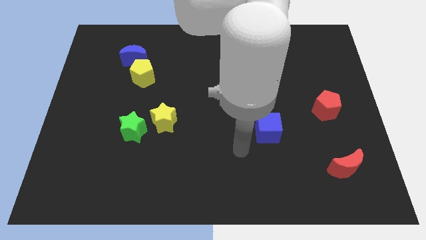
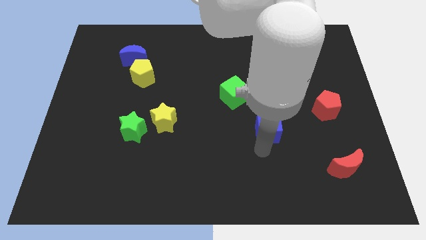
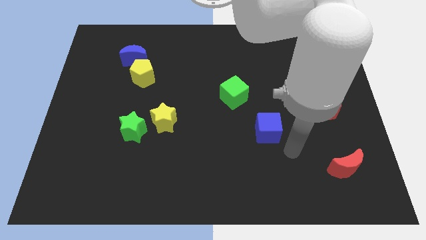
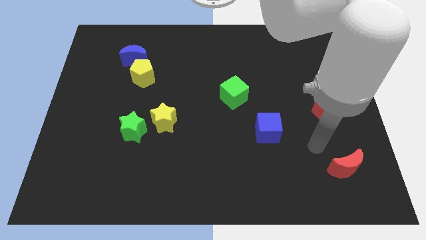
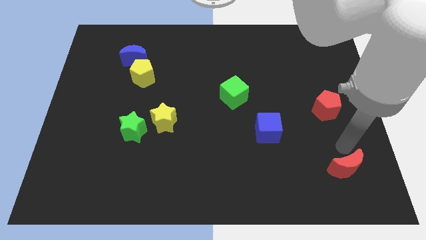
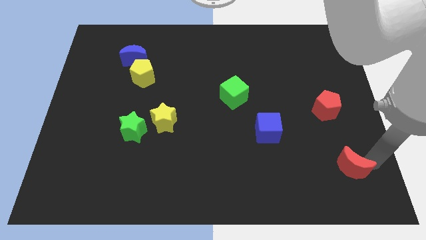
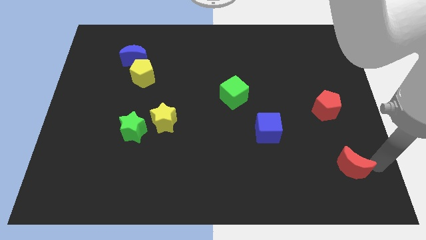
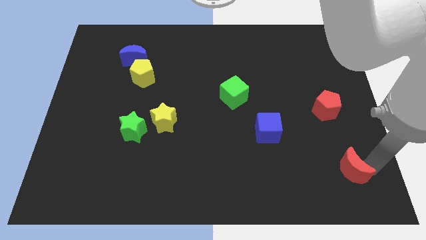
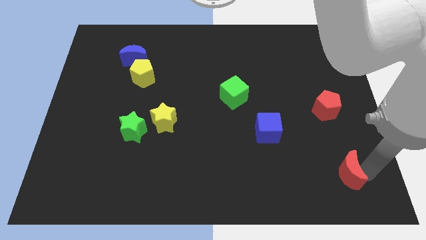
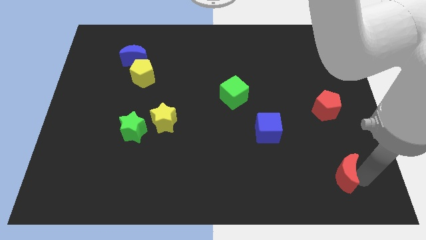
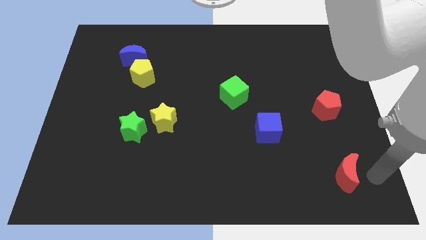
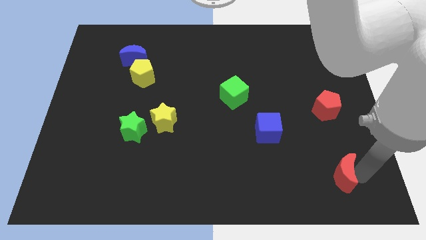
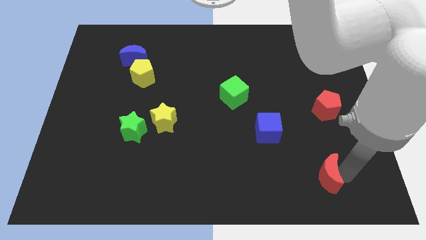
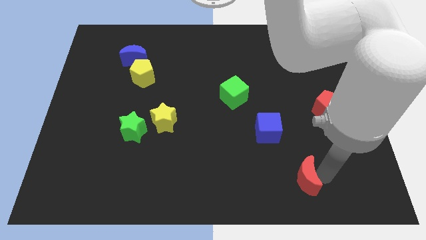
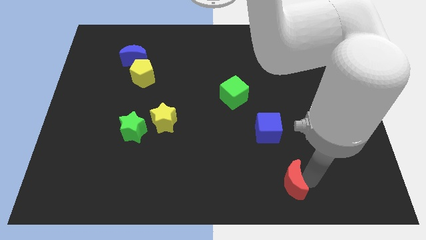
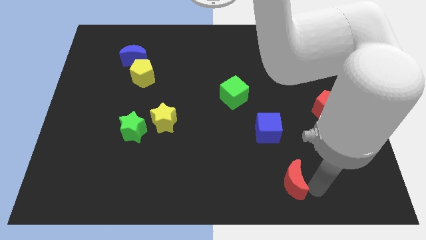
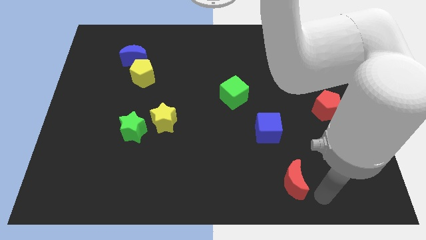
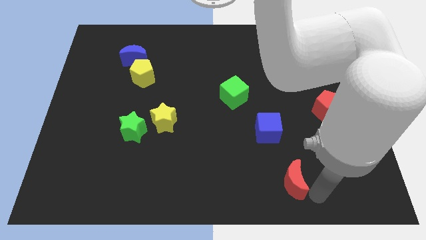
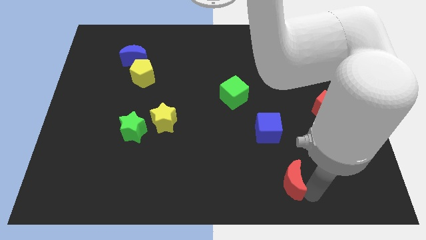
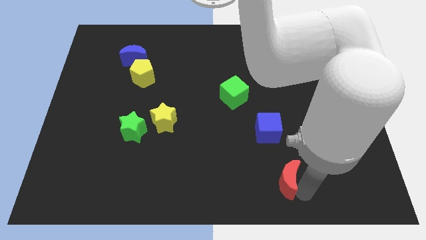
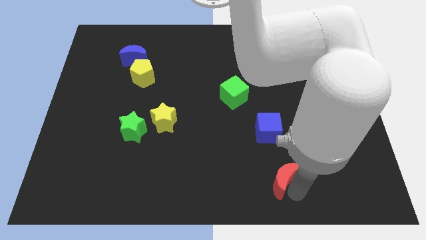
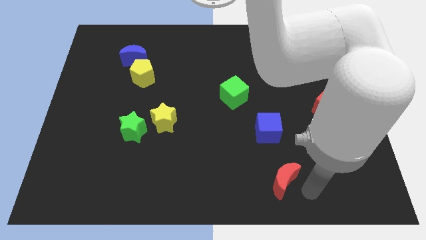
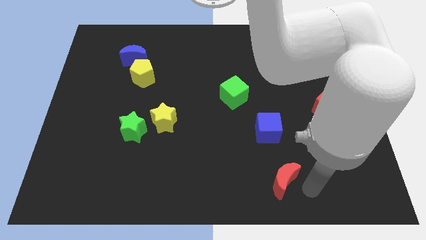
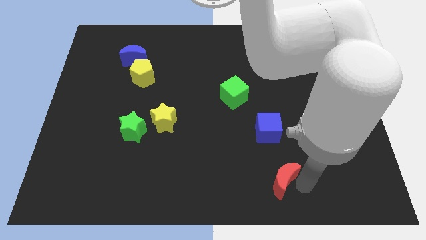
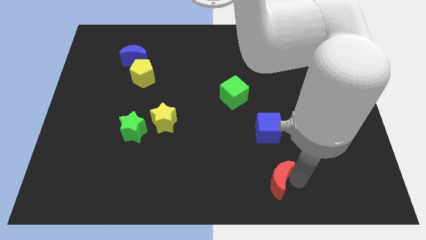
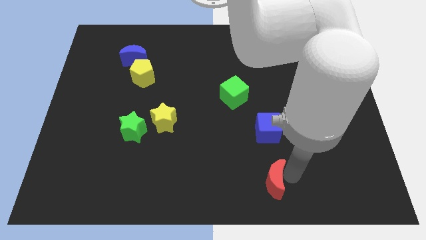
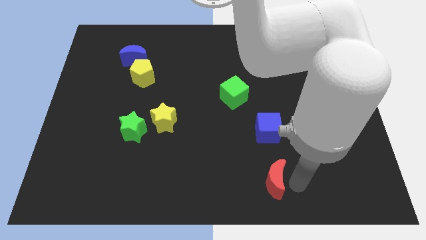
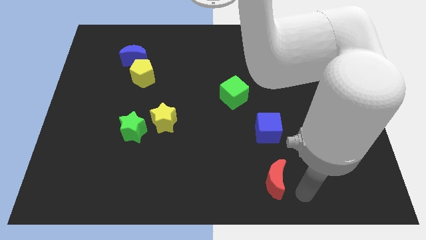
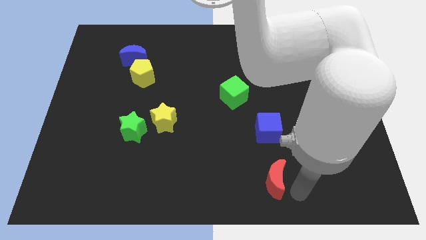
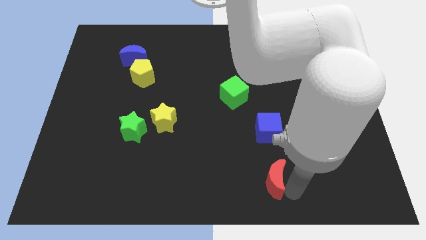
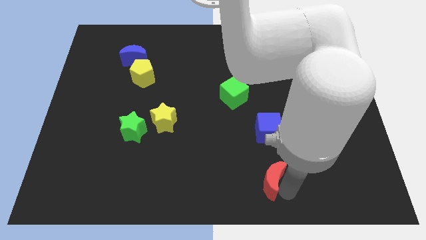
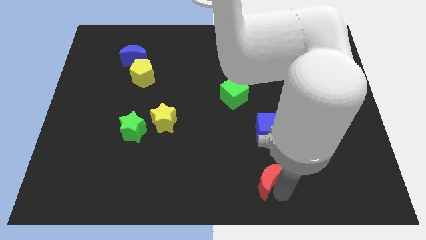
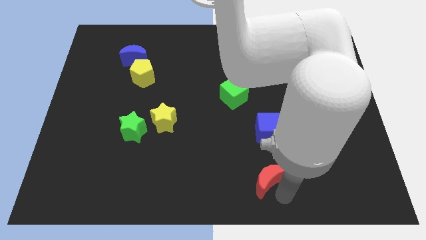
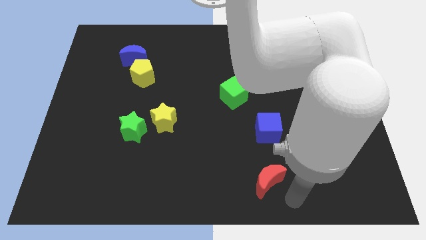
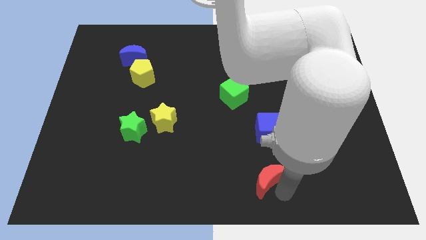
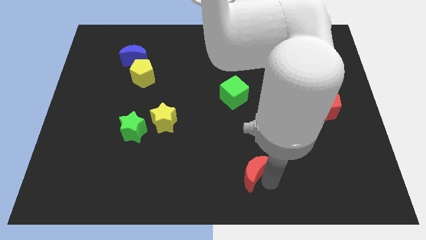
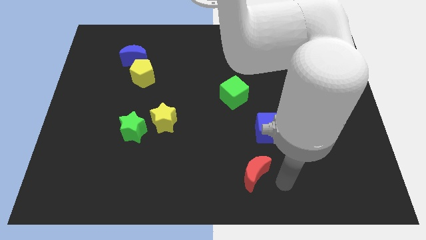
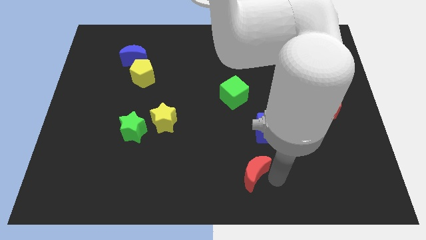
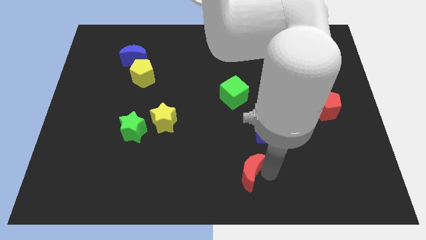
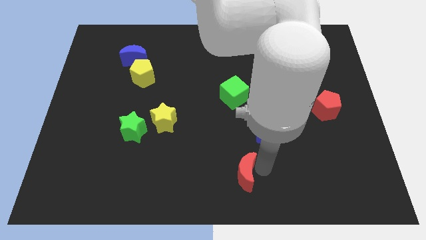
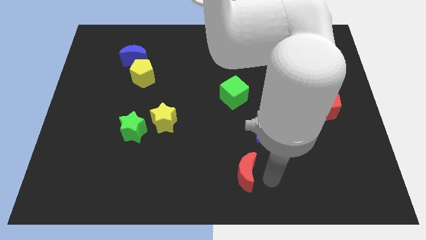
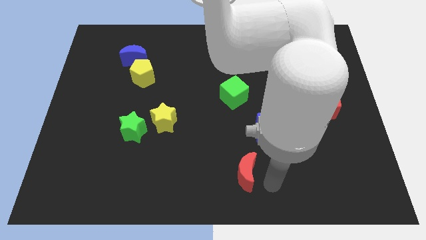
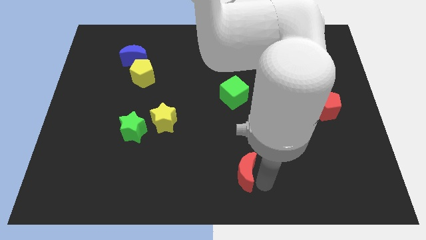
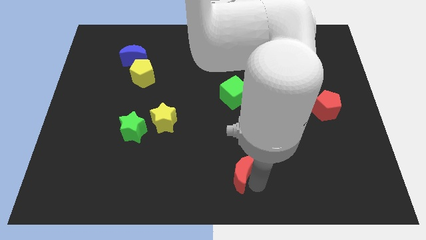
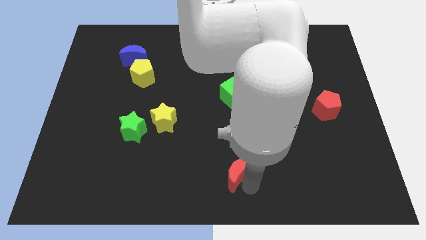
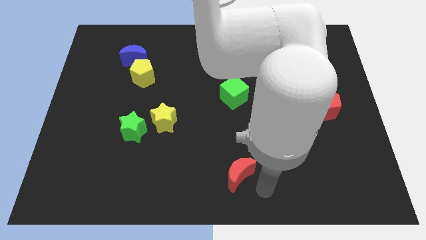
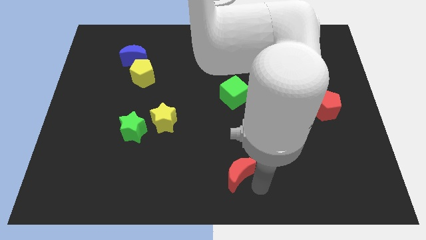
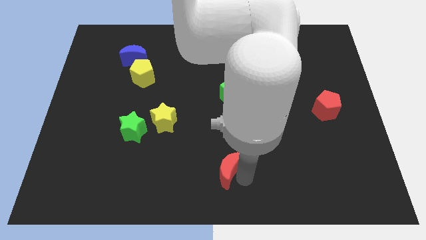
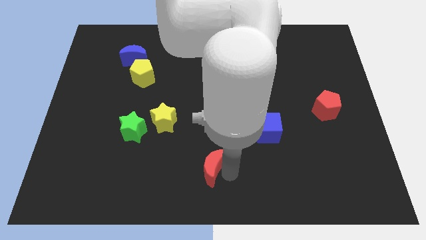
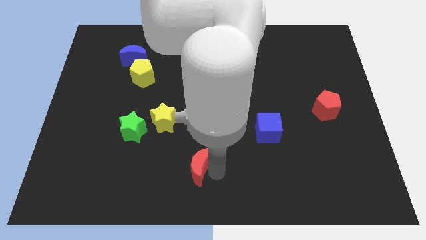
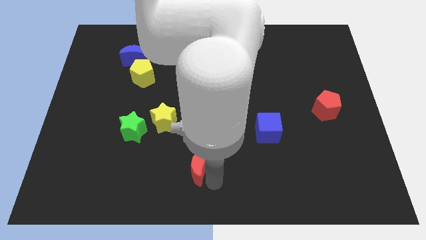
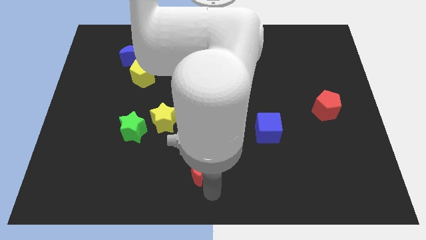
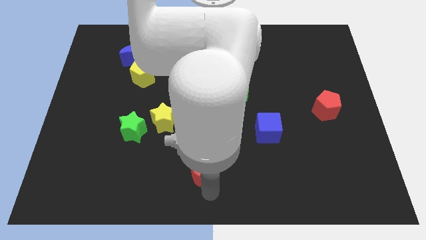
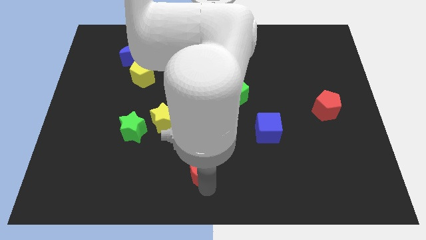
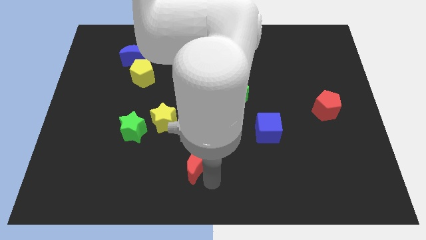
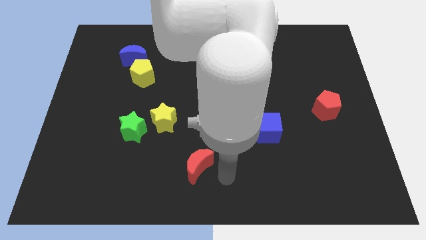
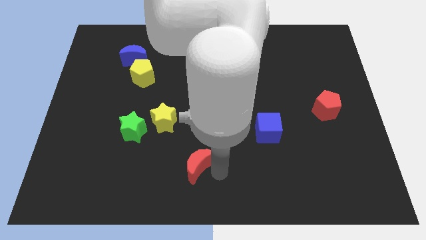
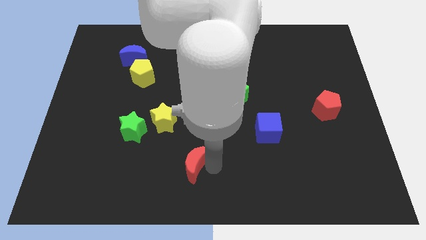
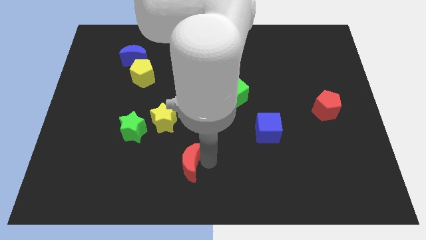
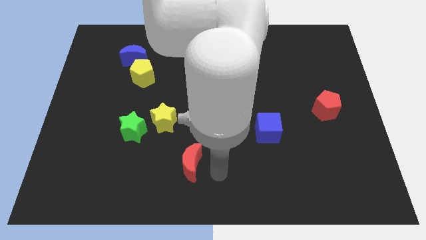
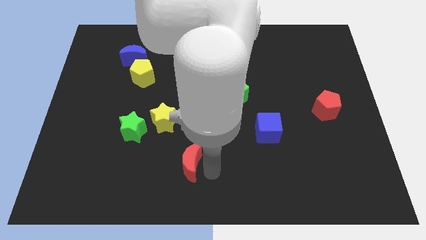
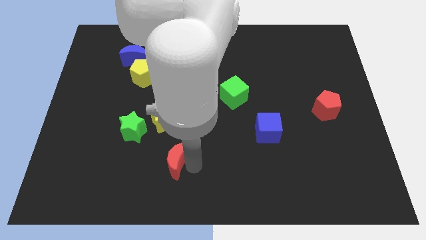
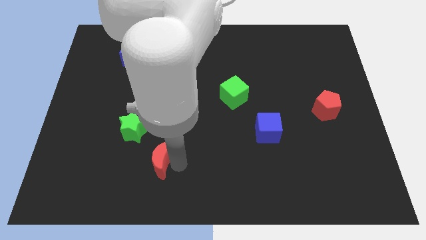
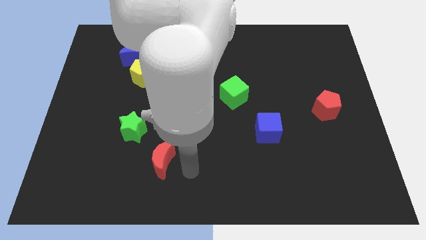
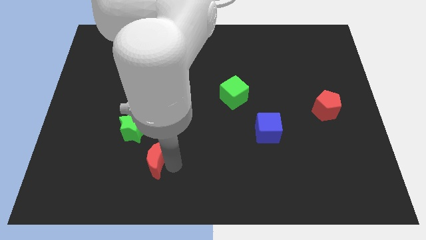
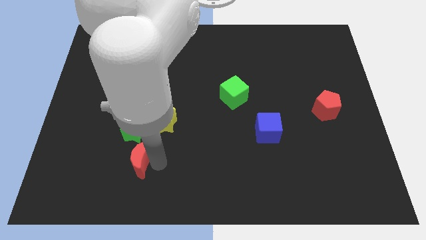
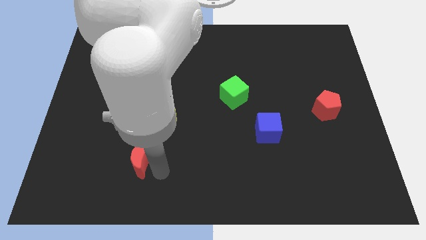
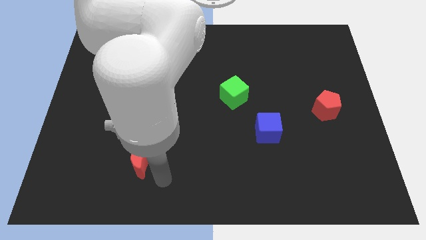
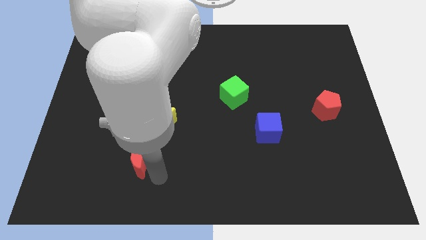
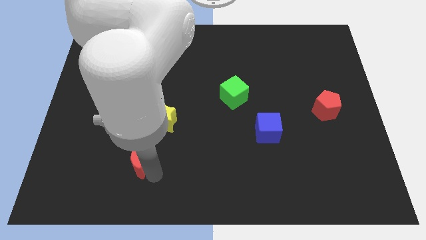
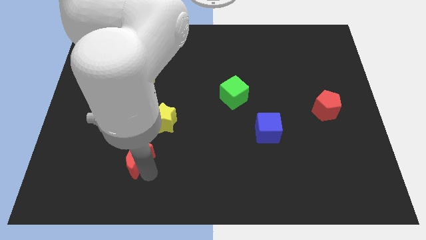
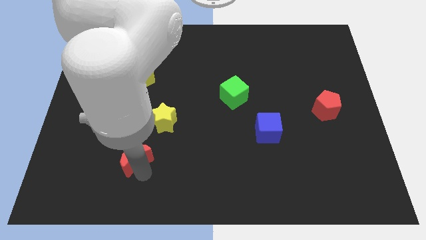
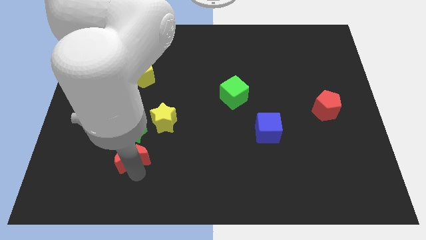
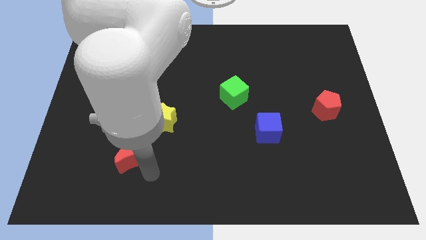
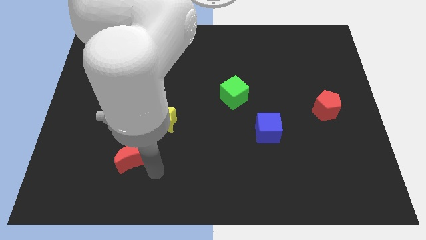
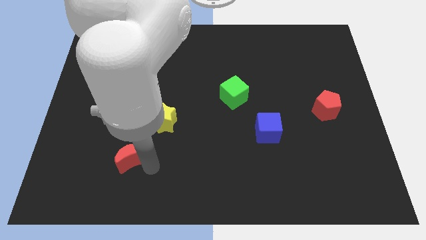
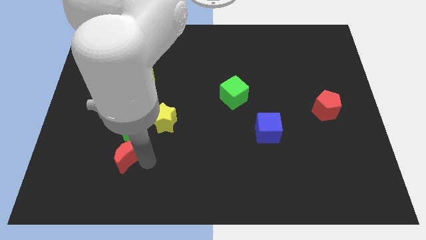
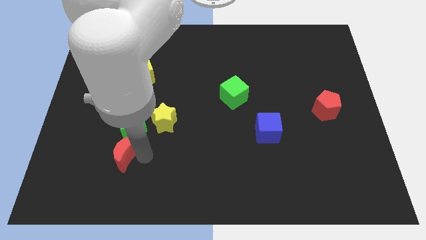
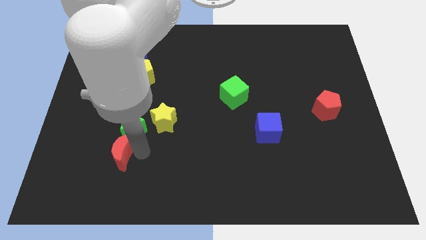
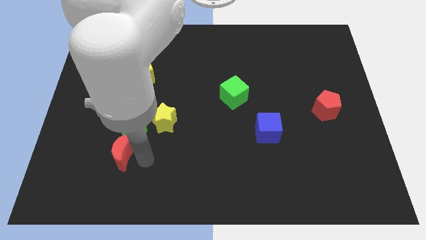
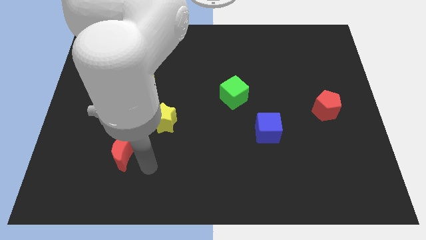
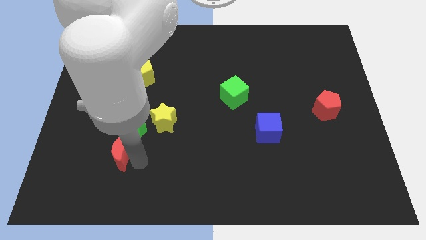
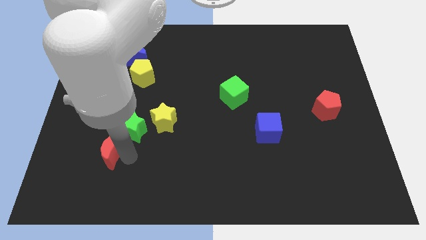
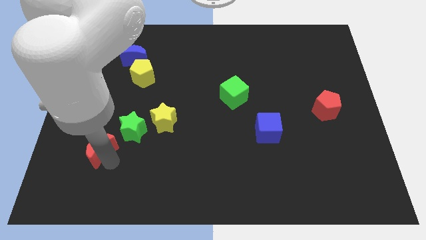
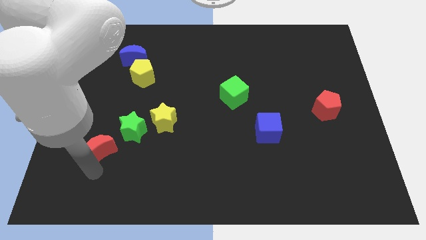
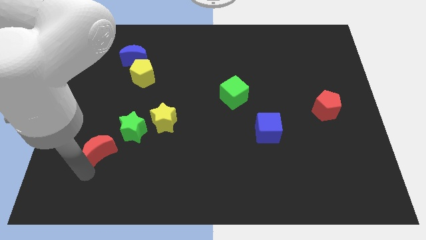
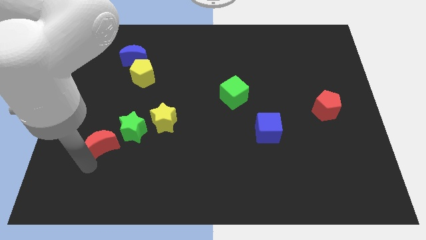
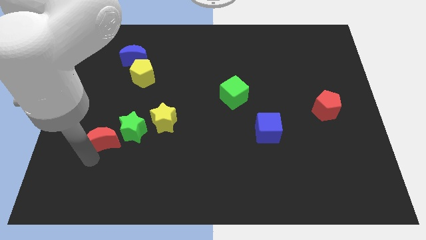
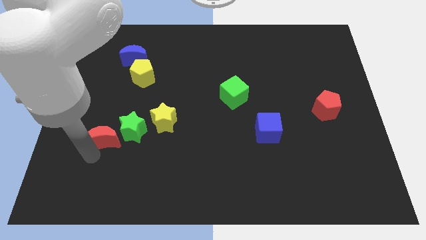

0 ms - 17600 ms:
put the red moon left of the yellow star
